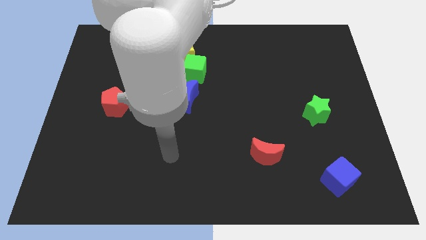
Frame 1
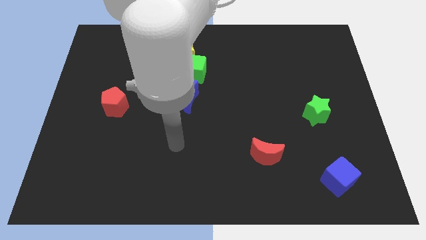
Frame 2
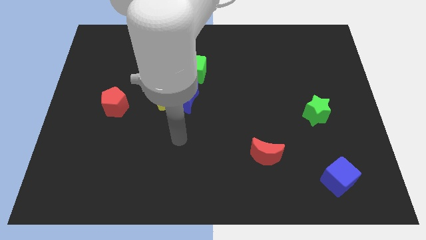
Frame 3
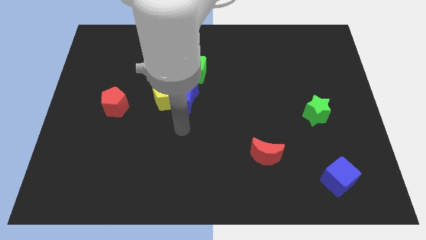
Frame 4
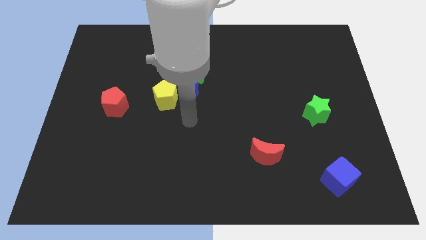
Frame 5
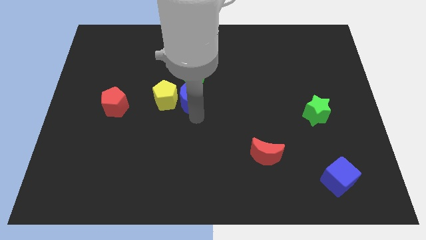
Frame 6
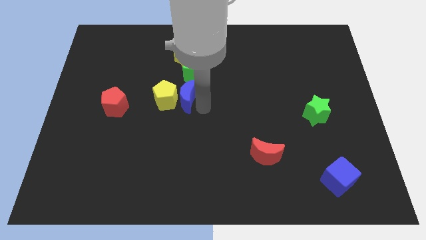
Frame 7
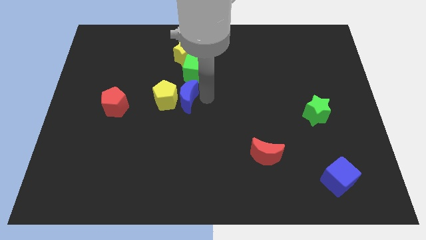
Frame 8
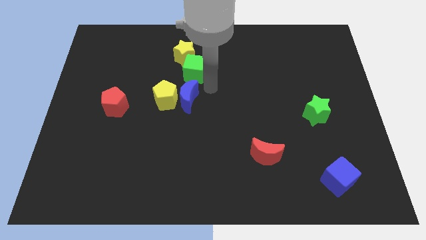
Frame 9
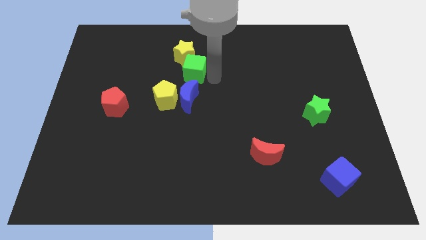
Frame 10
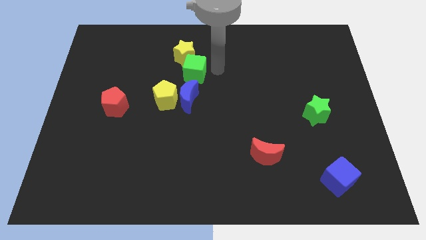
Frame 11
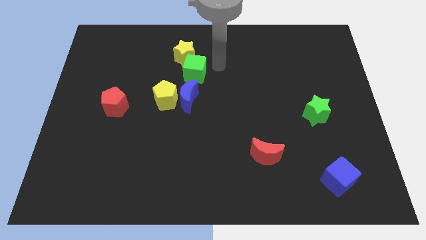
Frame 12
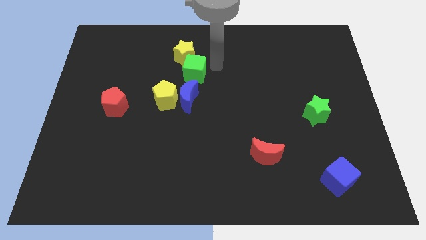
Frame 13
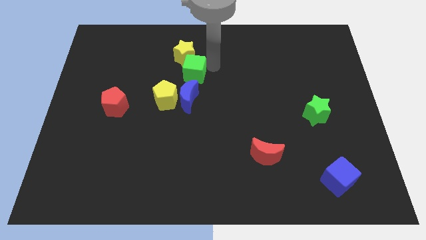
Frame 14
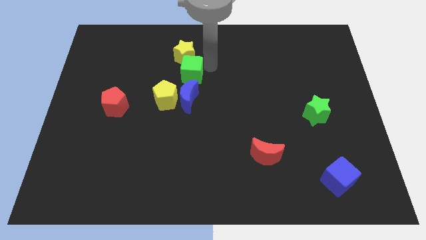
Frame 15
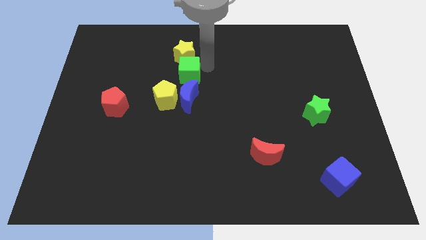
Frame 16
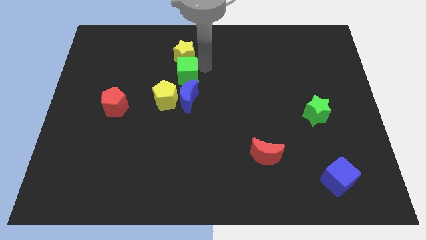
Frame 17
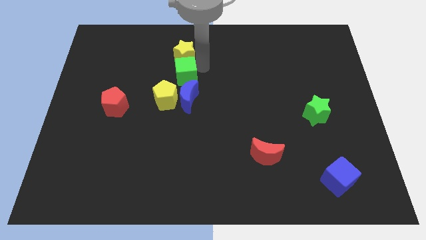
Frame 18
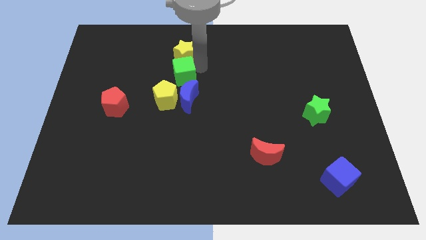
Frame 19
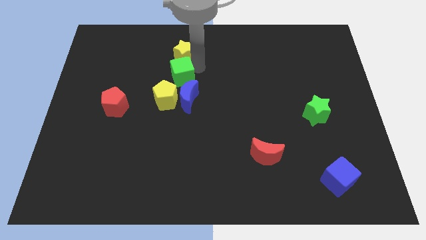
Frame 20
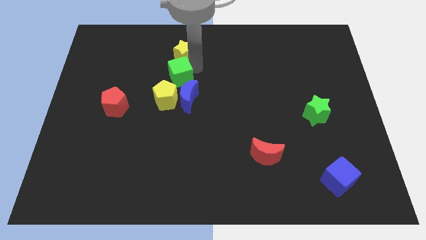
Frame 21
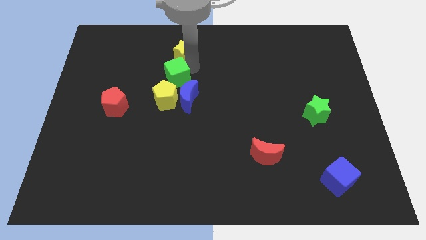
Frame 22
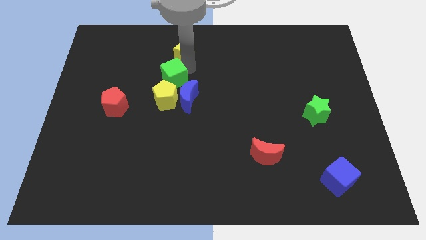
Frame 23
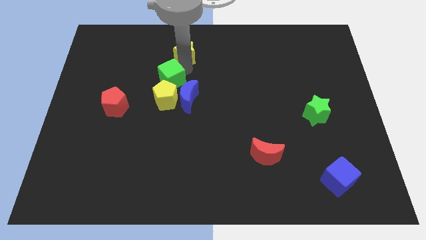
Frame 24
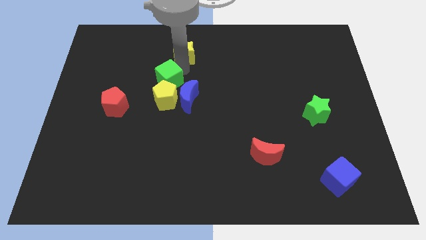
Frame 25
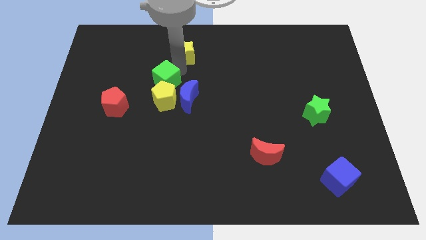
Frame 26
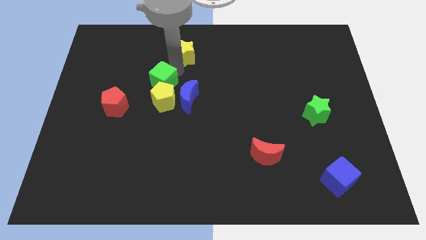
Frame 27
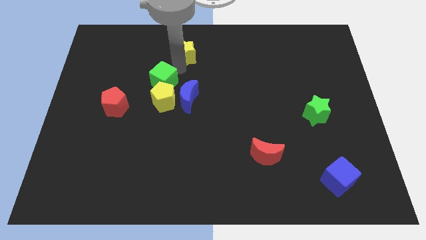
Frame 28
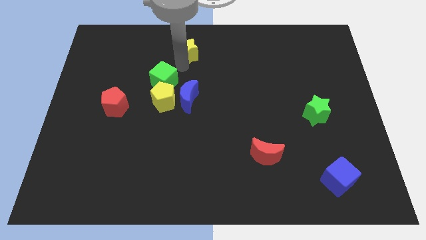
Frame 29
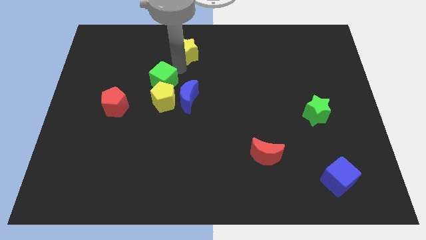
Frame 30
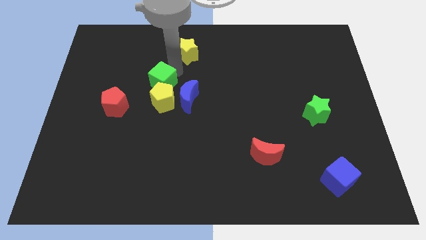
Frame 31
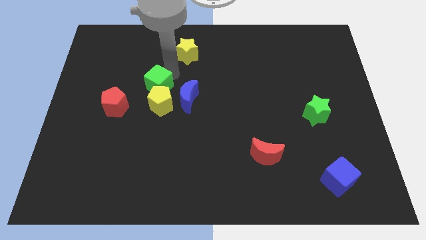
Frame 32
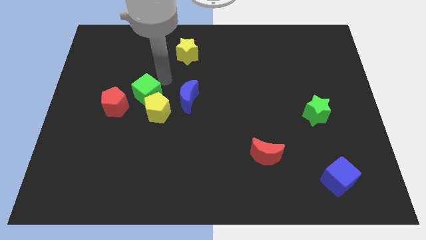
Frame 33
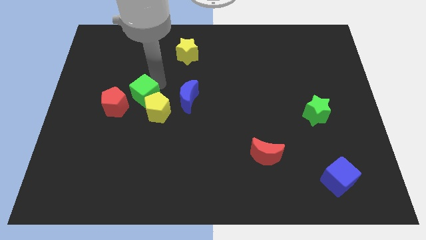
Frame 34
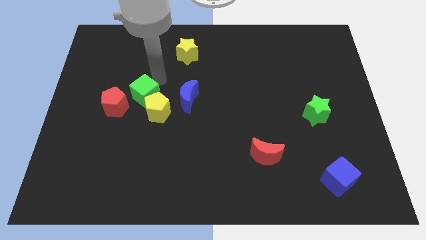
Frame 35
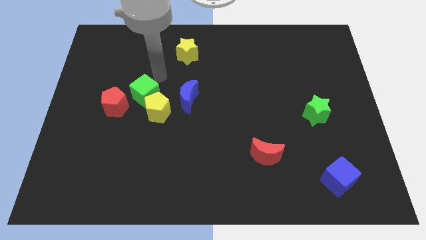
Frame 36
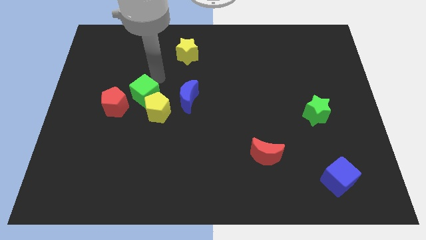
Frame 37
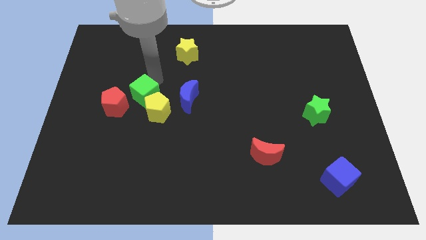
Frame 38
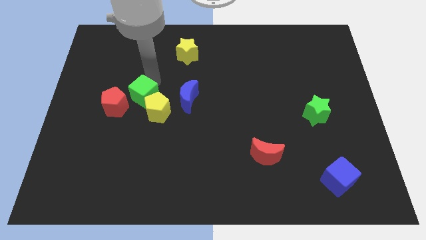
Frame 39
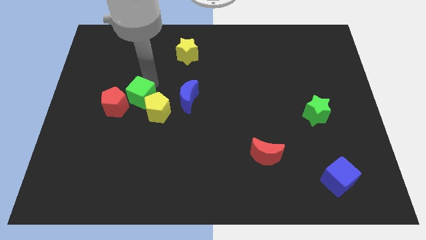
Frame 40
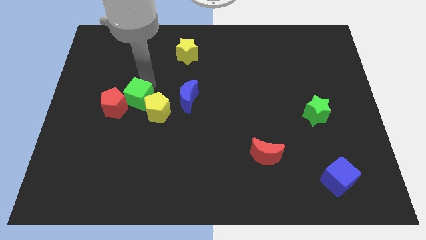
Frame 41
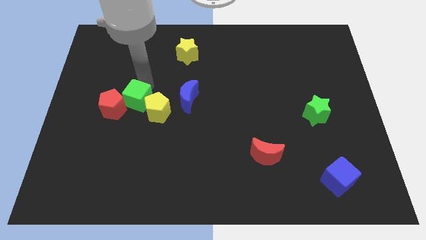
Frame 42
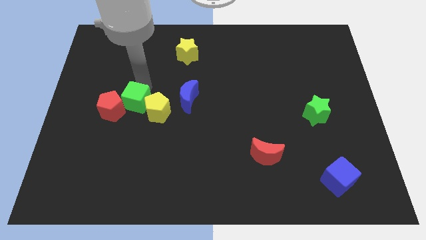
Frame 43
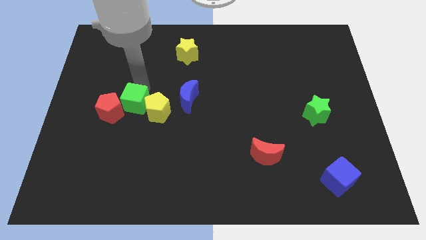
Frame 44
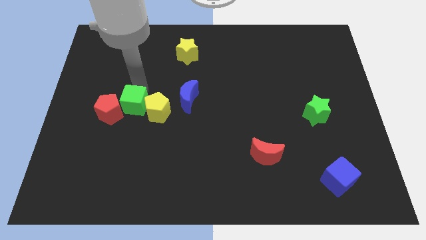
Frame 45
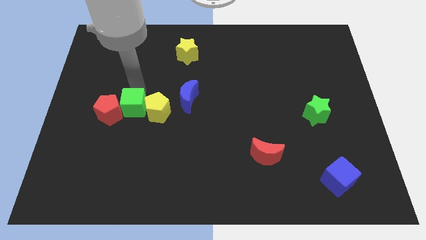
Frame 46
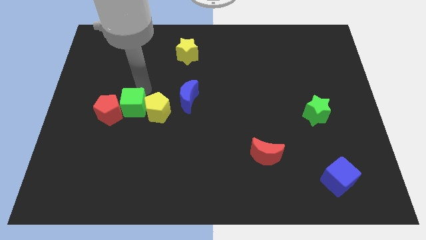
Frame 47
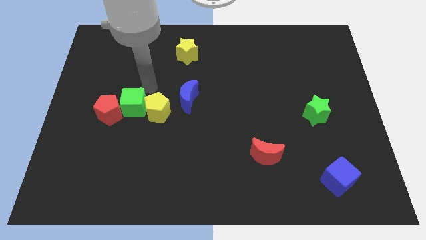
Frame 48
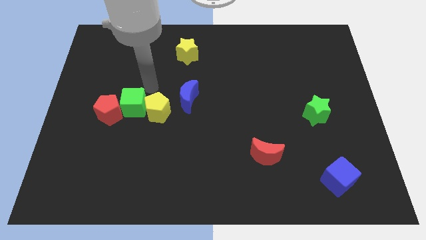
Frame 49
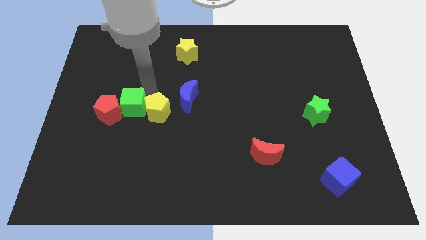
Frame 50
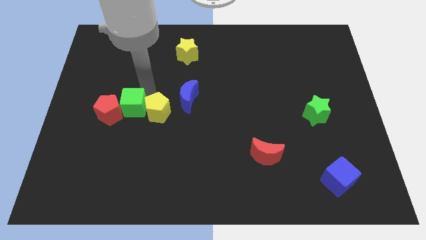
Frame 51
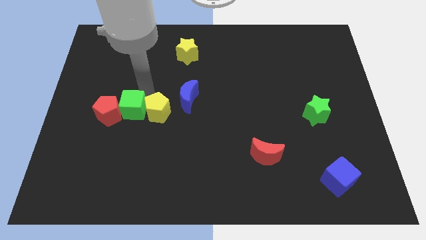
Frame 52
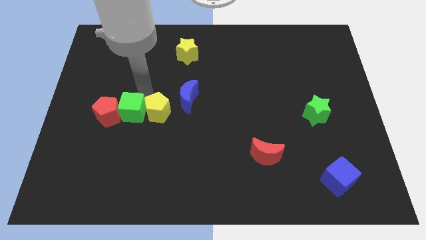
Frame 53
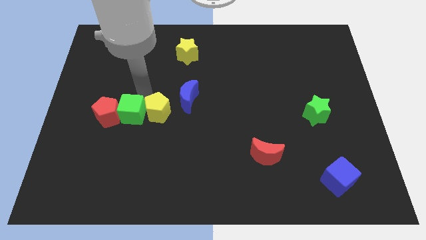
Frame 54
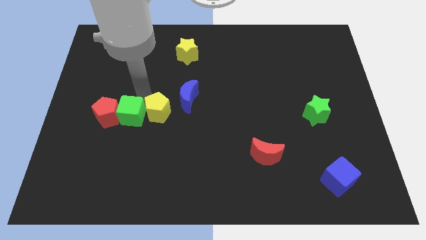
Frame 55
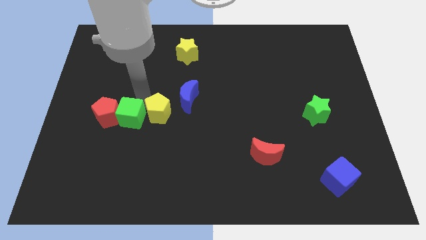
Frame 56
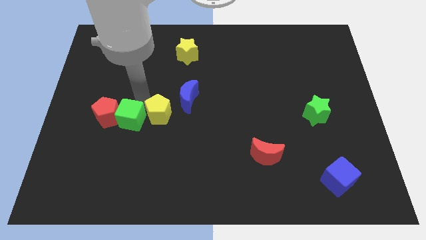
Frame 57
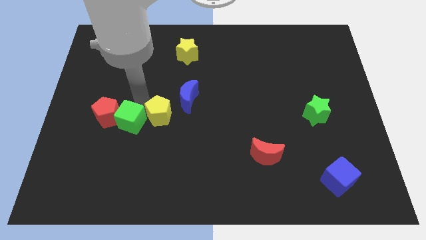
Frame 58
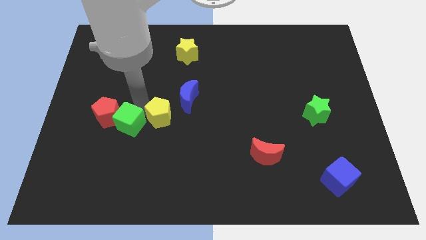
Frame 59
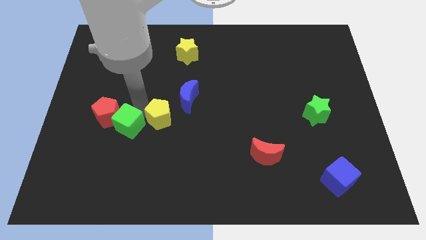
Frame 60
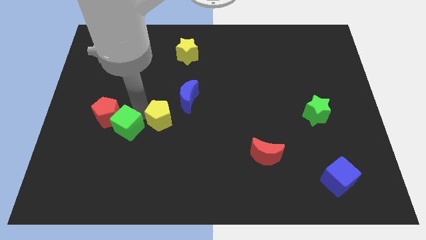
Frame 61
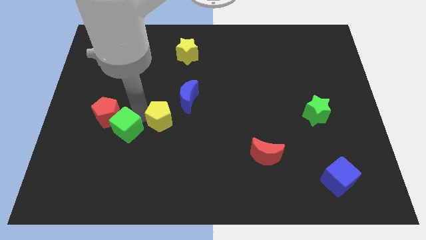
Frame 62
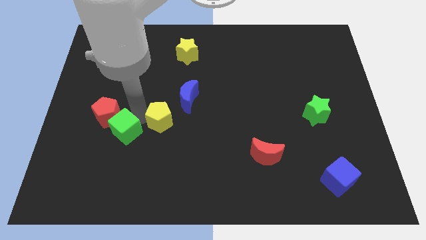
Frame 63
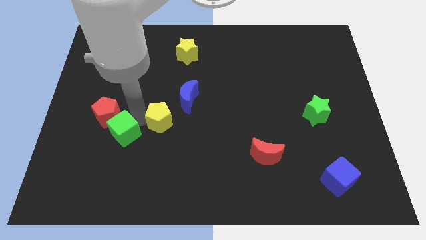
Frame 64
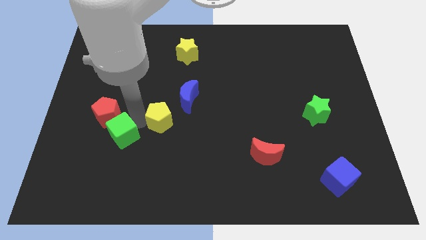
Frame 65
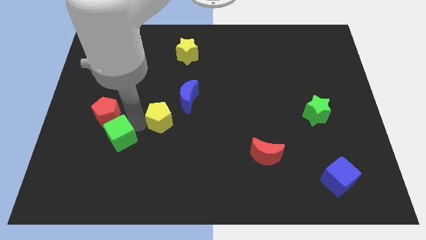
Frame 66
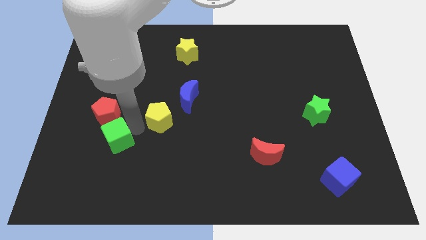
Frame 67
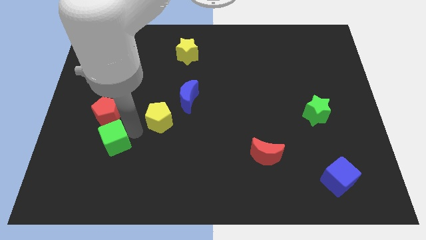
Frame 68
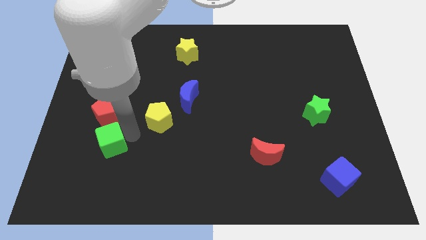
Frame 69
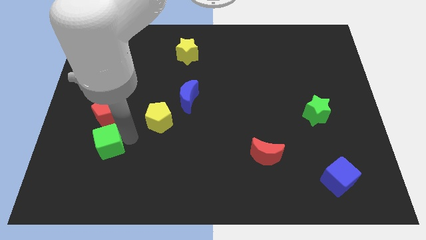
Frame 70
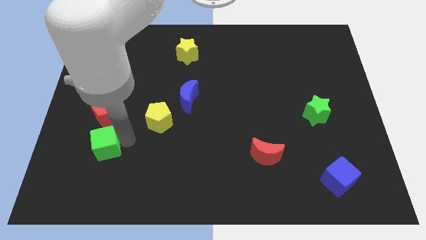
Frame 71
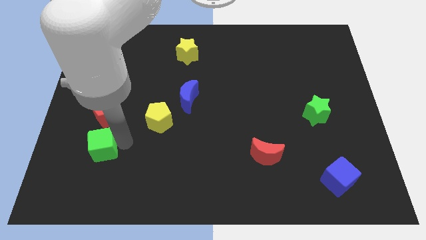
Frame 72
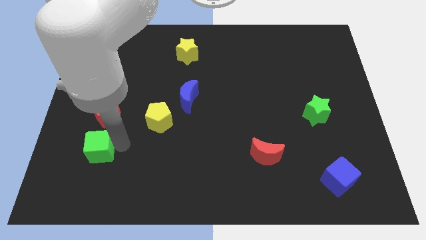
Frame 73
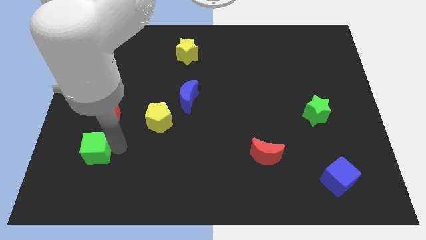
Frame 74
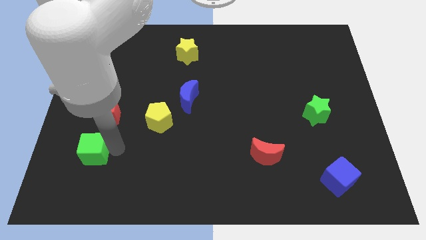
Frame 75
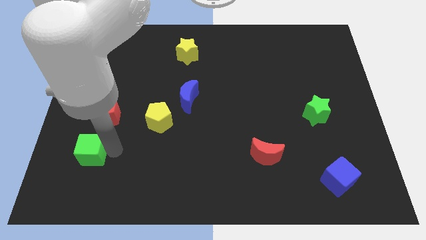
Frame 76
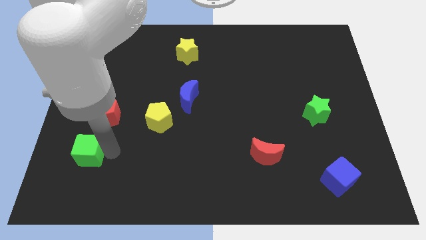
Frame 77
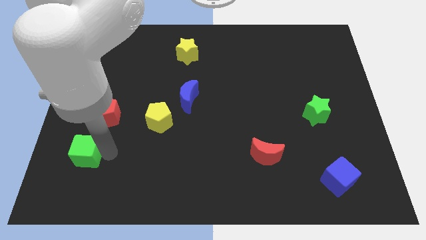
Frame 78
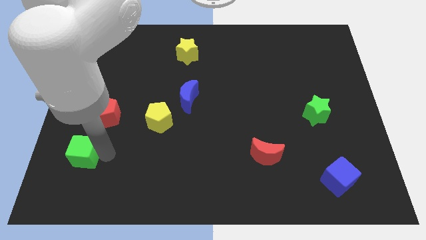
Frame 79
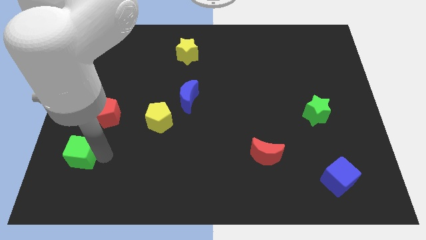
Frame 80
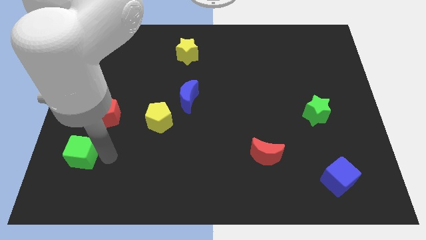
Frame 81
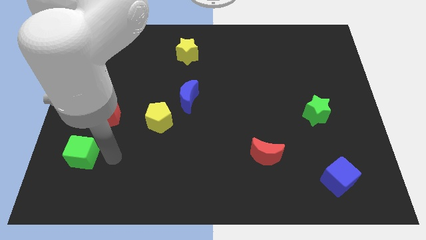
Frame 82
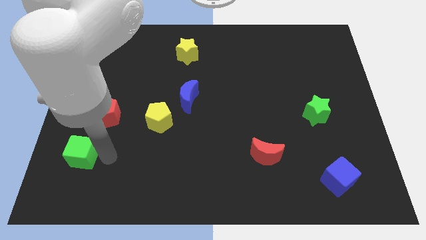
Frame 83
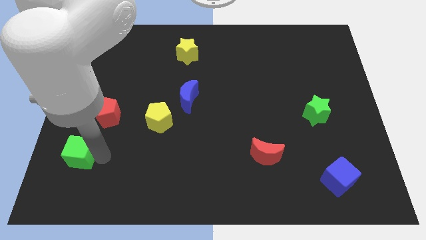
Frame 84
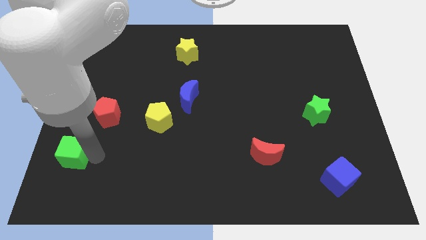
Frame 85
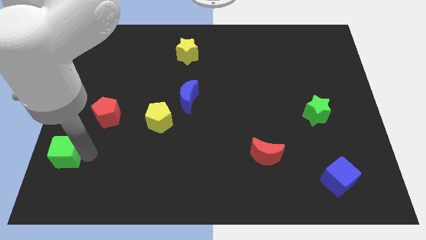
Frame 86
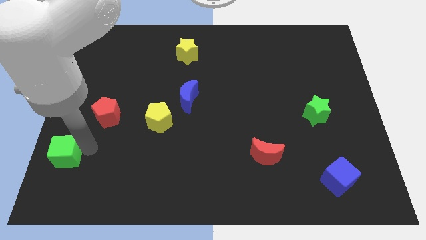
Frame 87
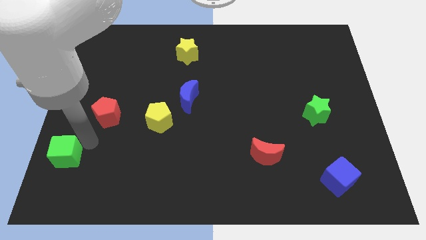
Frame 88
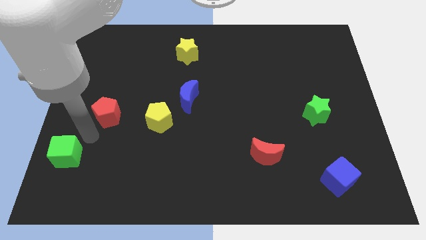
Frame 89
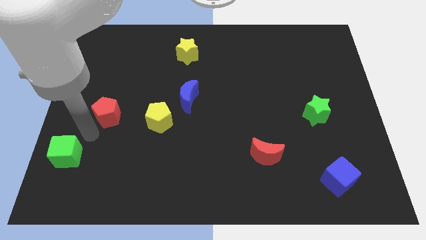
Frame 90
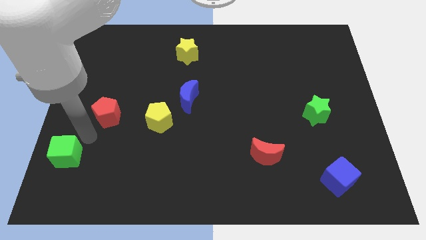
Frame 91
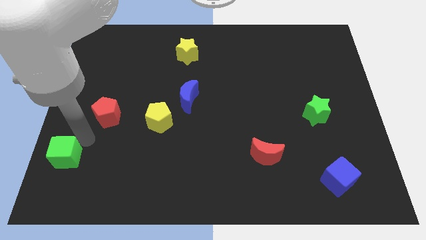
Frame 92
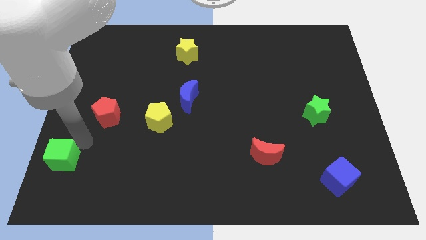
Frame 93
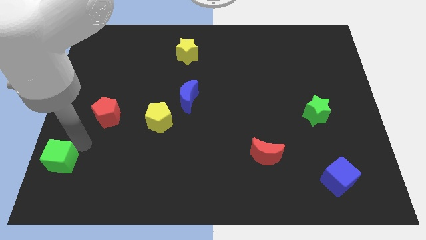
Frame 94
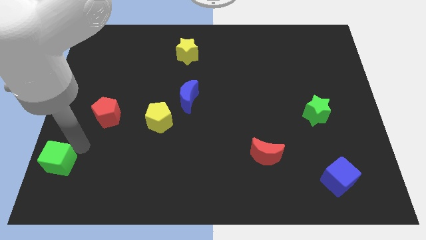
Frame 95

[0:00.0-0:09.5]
slide the green cube to the bottom left
